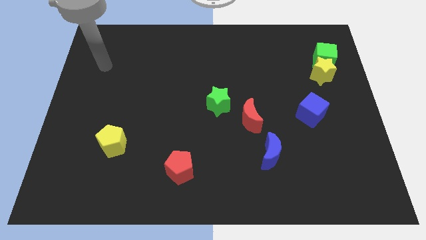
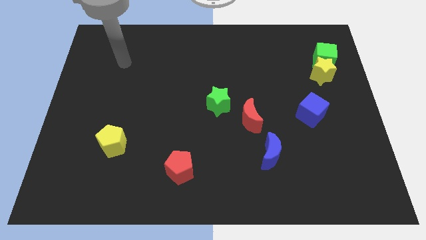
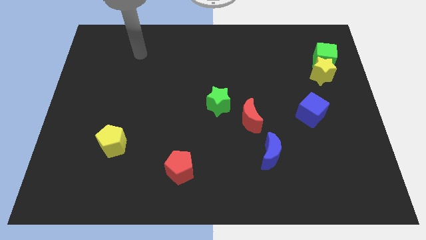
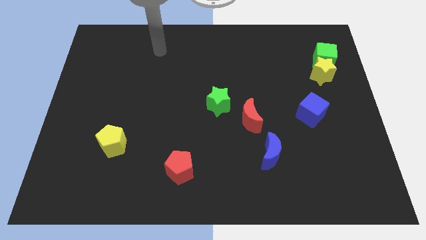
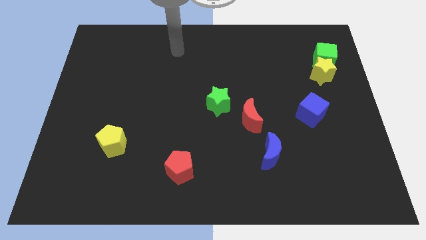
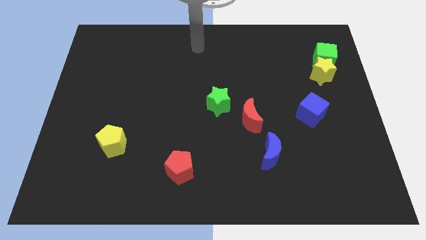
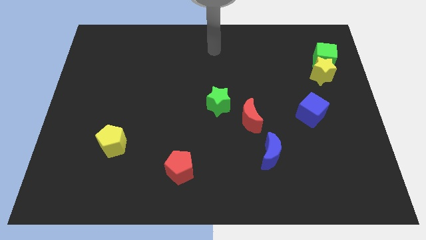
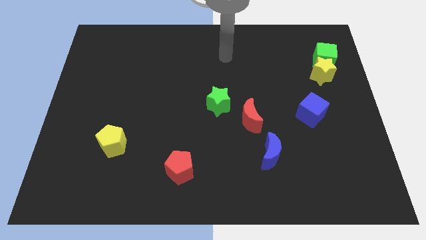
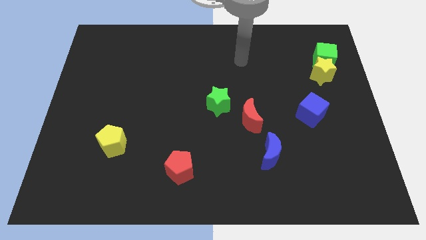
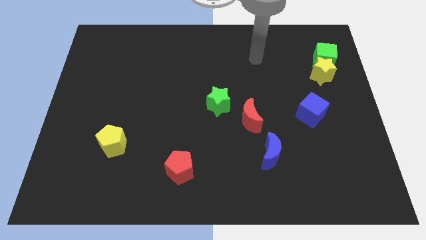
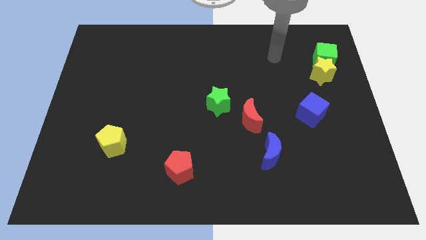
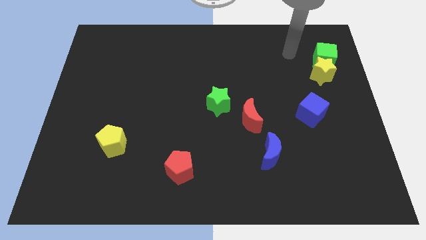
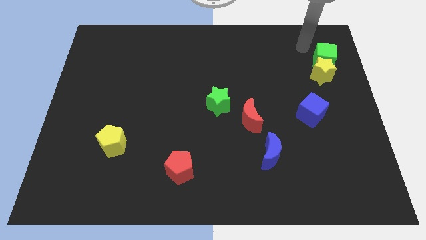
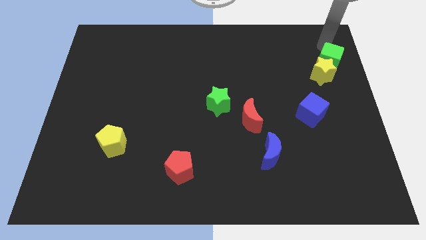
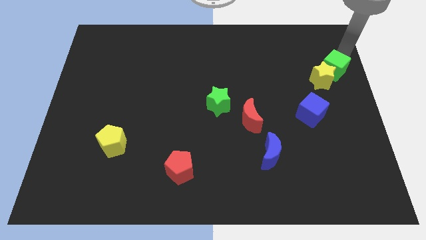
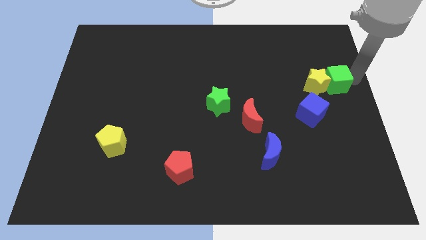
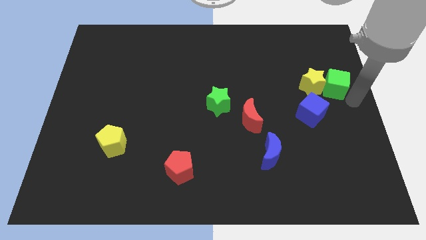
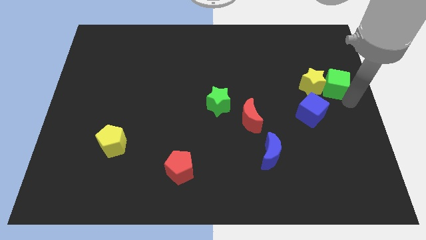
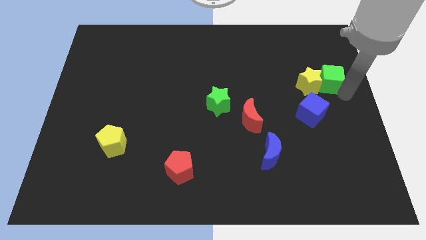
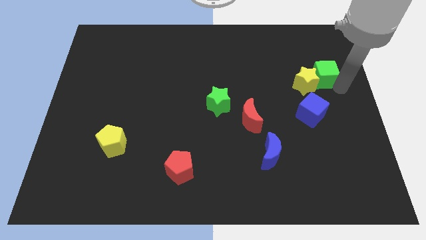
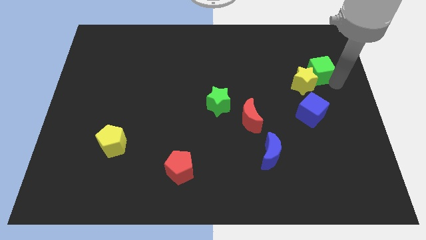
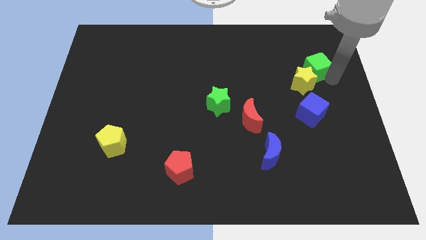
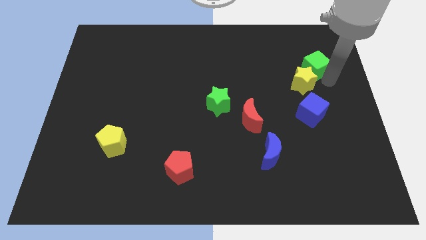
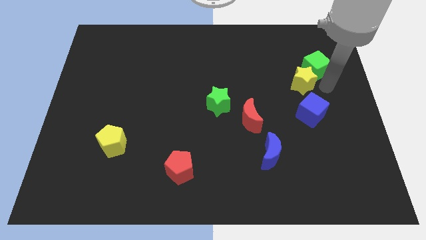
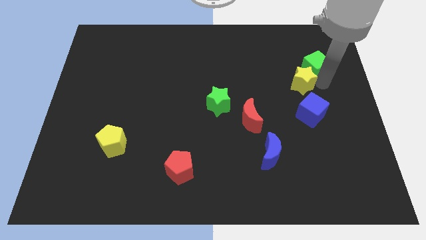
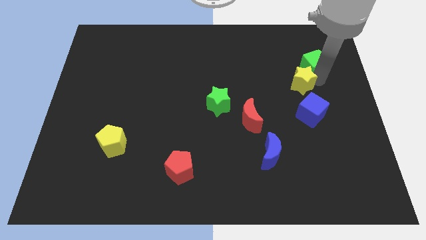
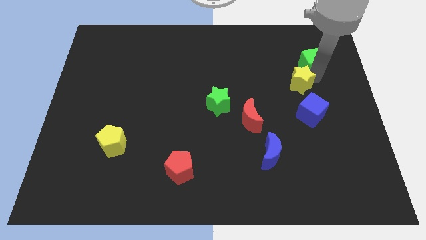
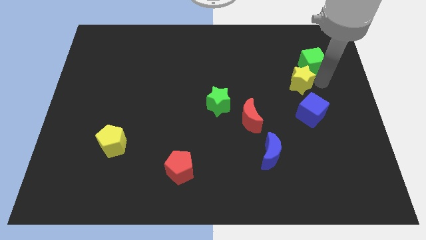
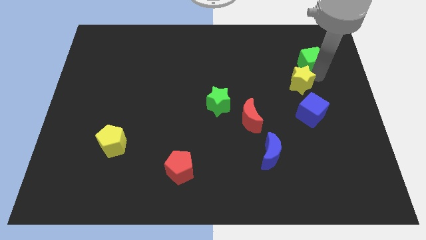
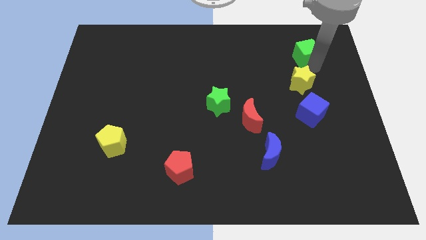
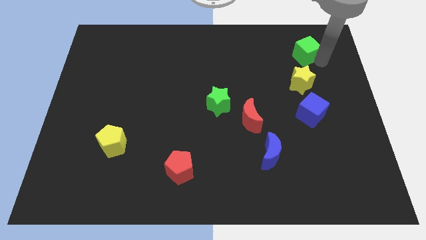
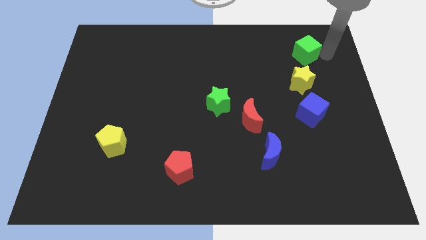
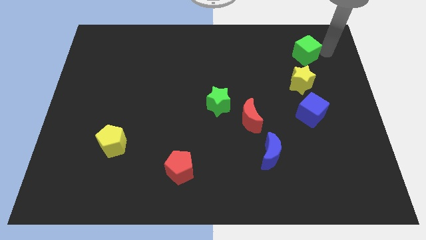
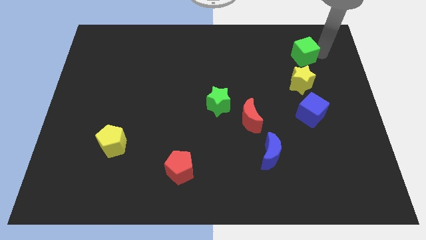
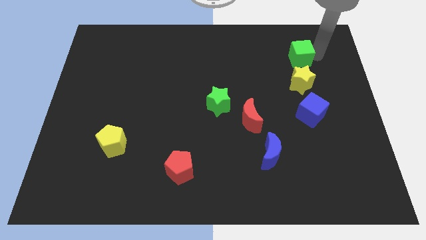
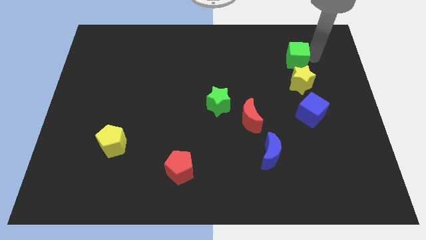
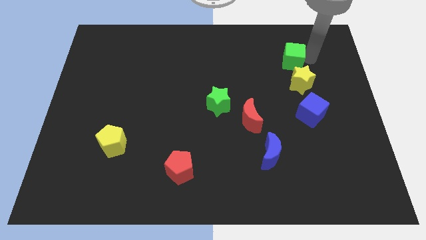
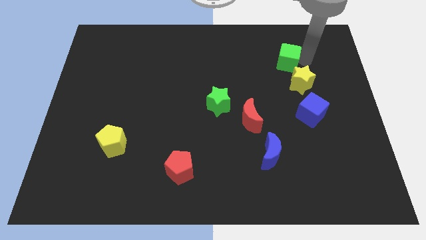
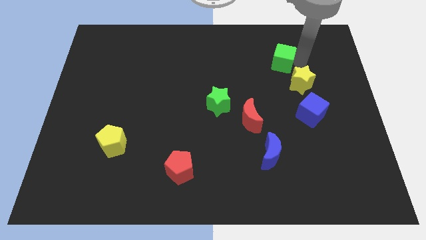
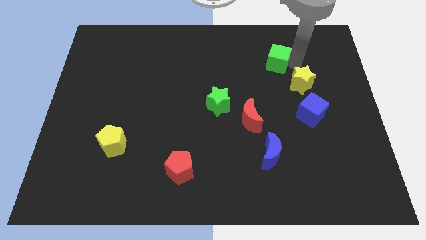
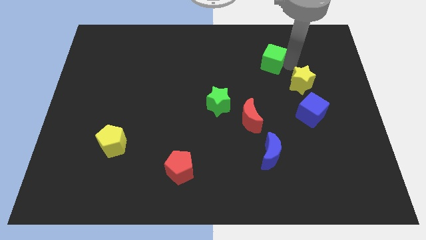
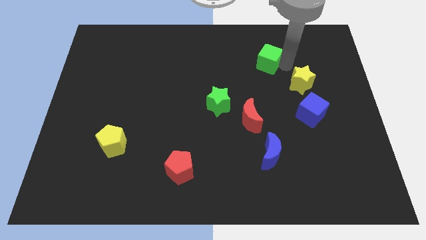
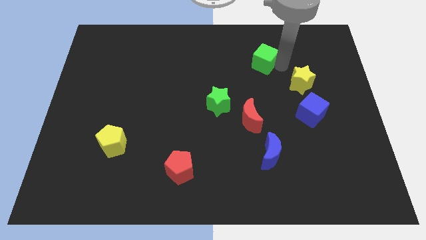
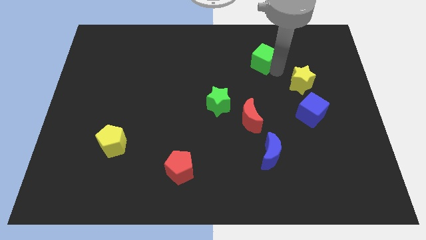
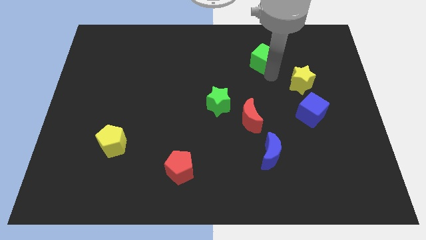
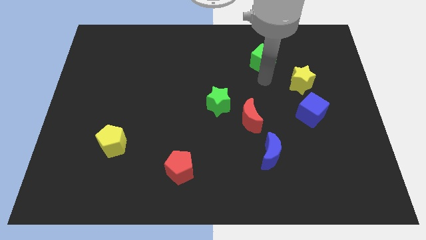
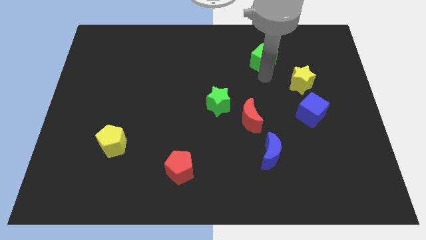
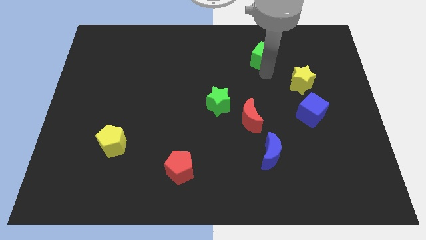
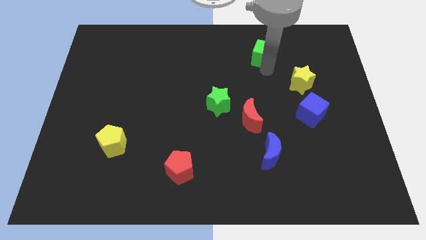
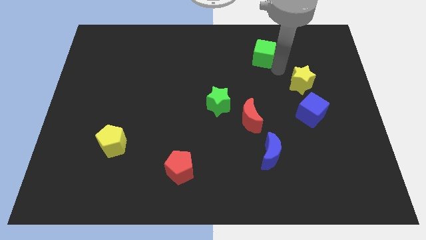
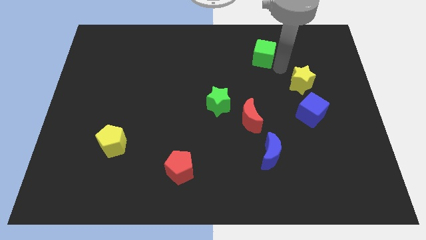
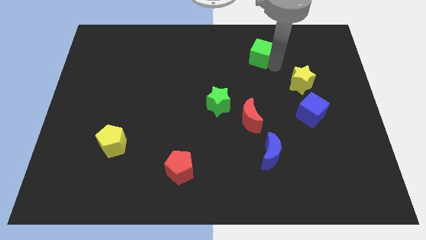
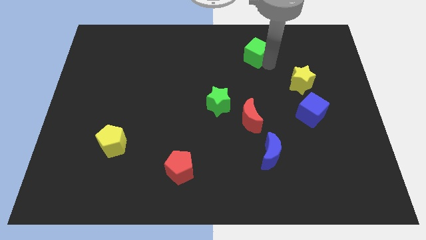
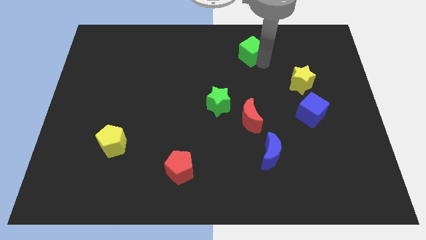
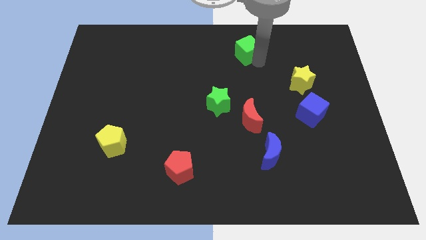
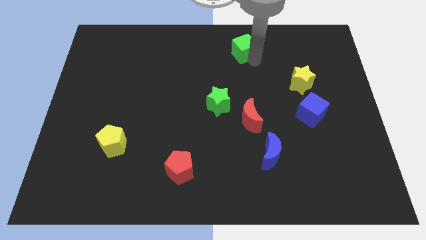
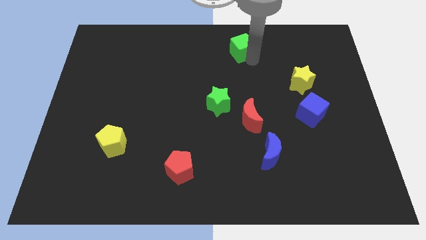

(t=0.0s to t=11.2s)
slide the green cube to the top side

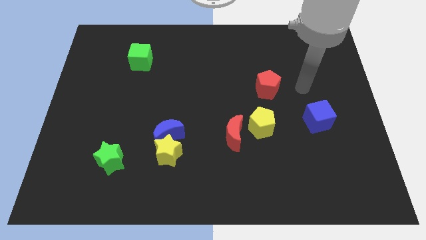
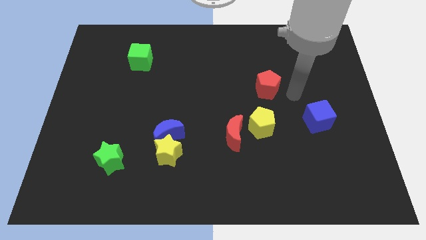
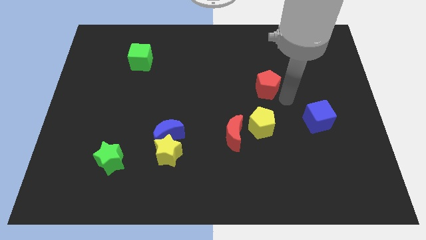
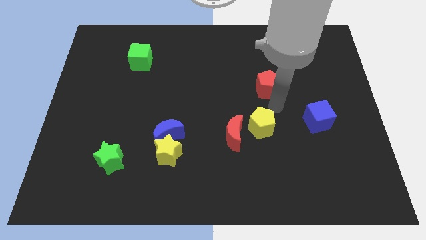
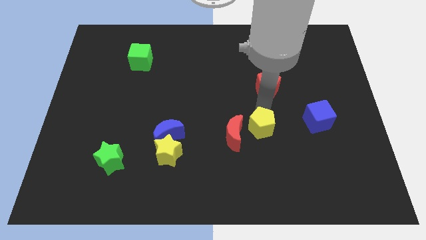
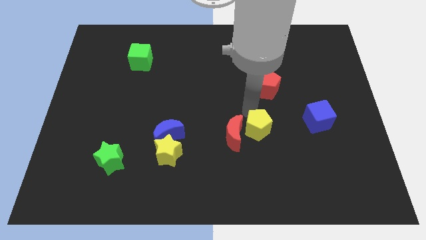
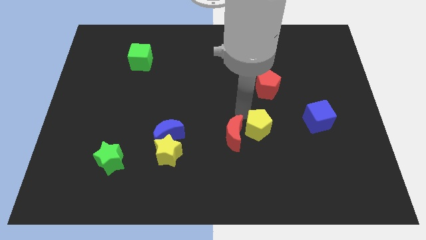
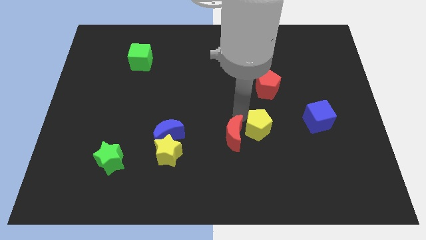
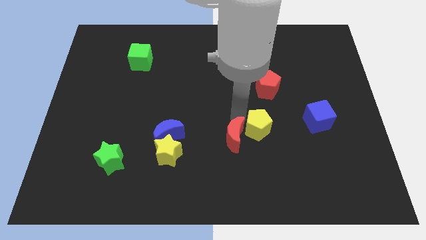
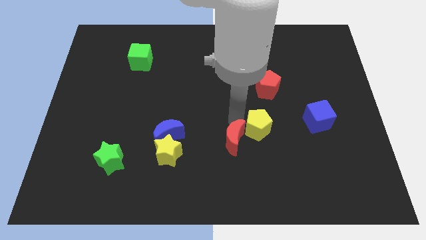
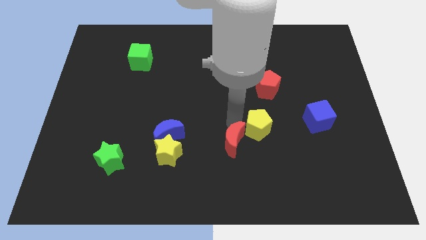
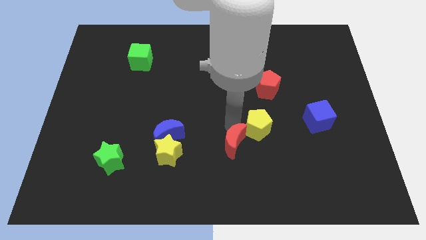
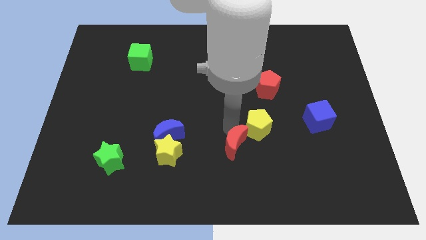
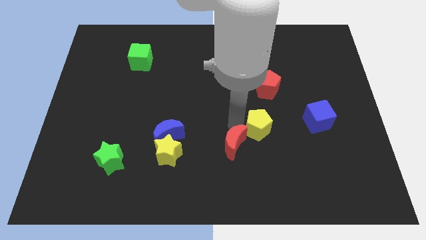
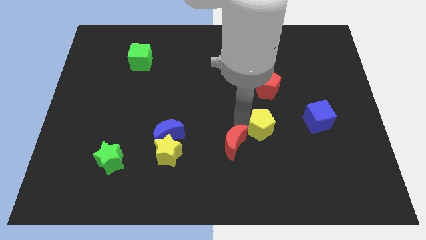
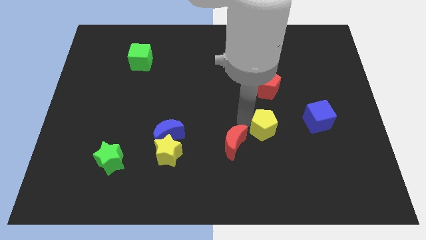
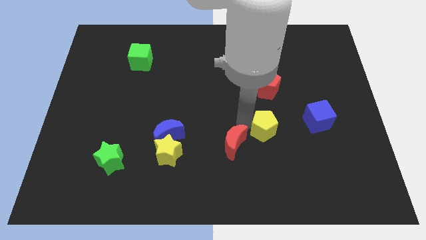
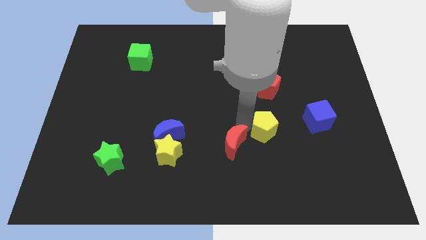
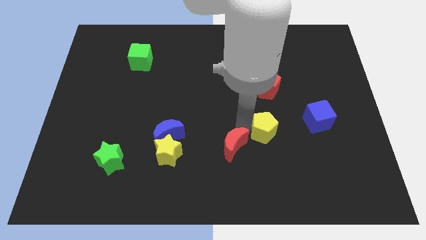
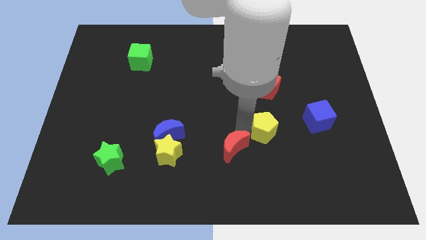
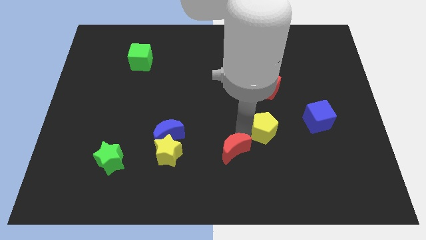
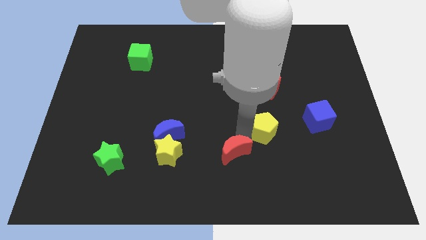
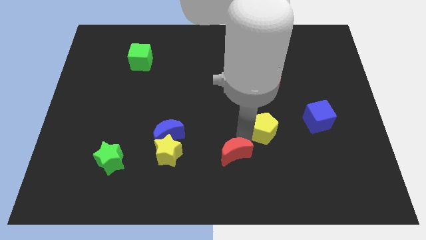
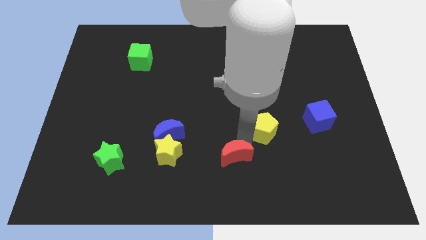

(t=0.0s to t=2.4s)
push the red moon to the bottom
